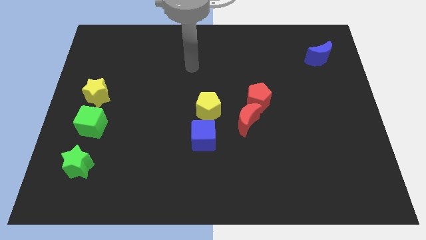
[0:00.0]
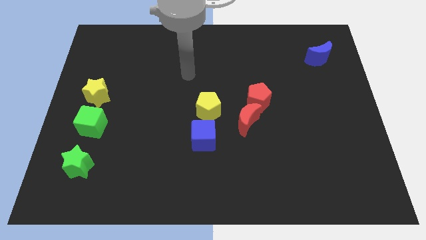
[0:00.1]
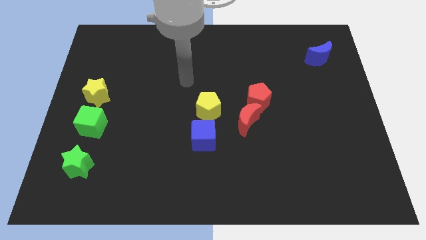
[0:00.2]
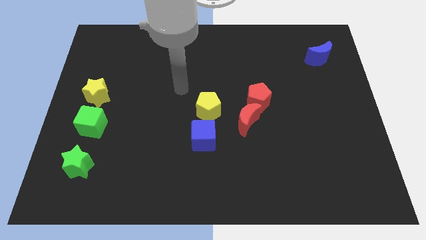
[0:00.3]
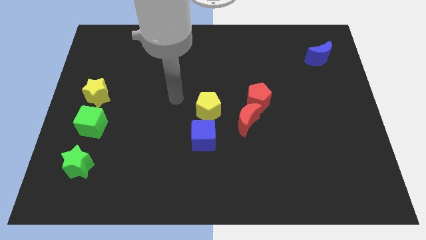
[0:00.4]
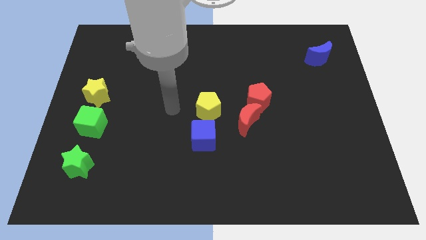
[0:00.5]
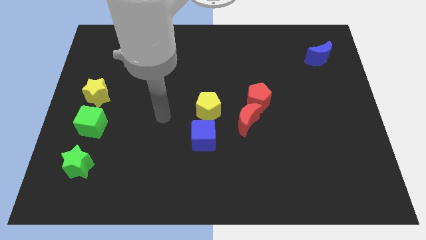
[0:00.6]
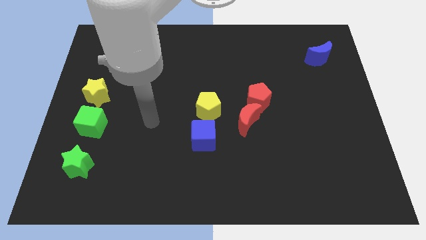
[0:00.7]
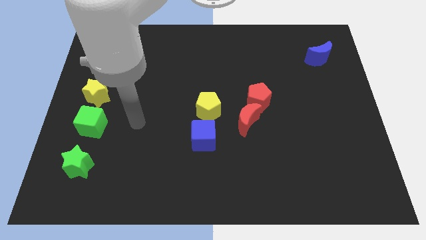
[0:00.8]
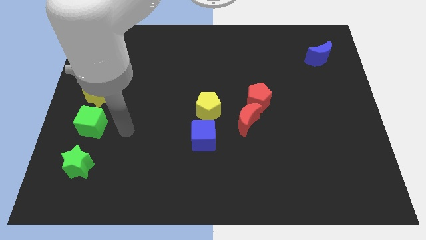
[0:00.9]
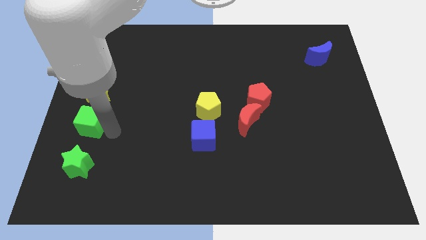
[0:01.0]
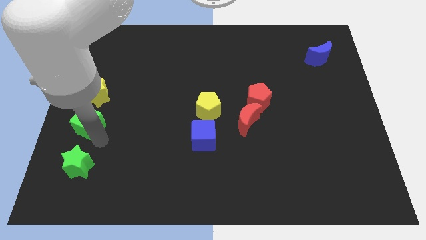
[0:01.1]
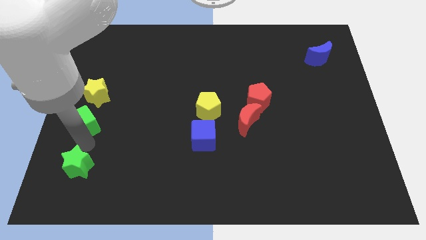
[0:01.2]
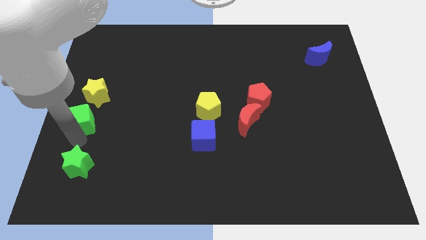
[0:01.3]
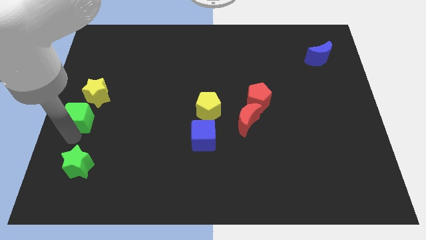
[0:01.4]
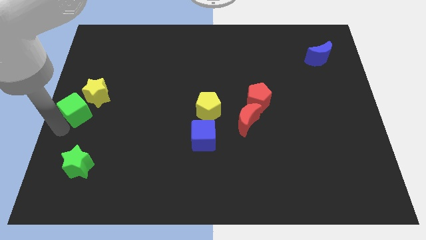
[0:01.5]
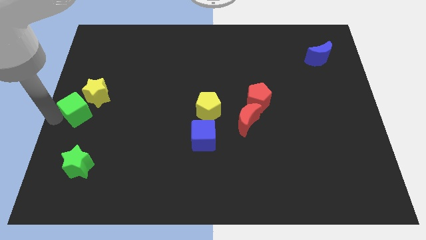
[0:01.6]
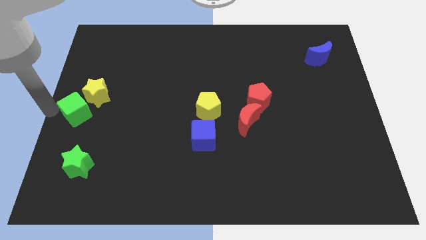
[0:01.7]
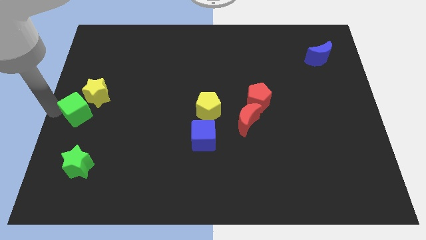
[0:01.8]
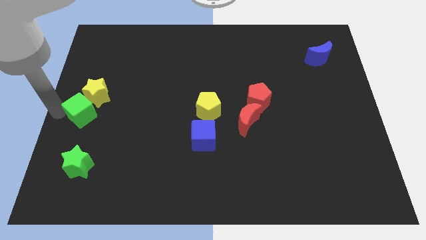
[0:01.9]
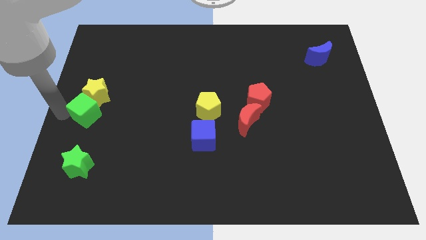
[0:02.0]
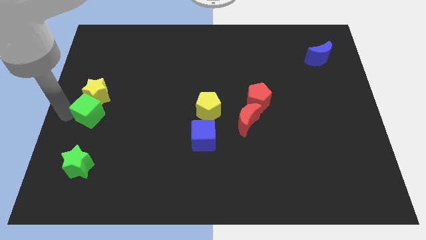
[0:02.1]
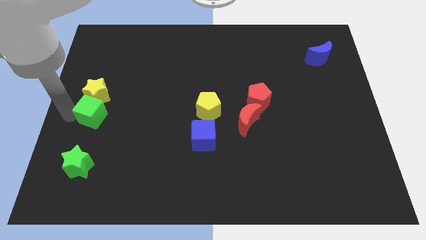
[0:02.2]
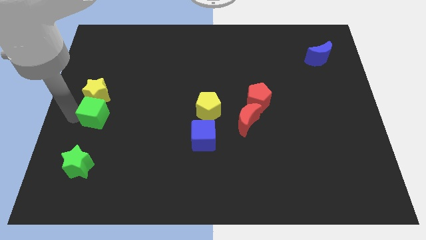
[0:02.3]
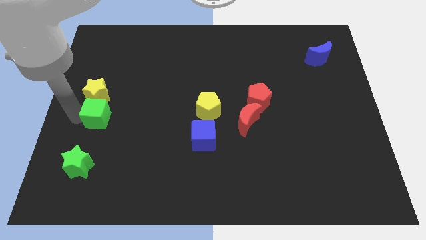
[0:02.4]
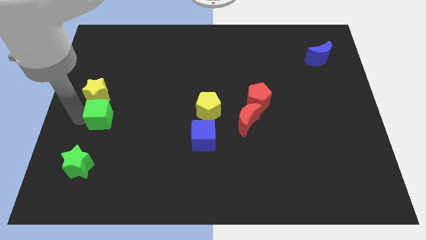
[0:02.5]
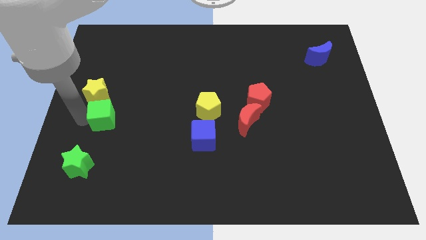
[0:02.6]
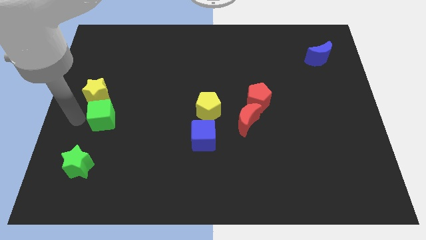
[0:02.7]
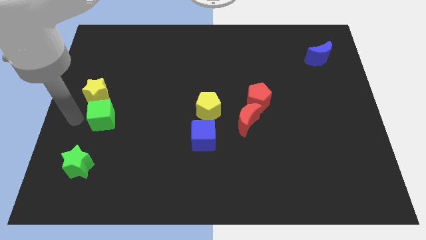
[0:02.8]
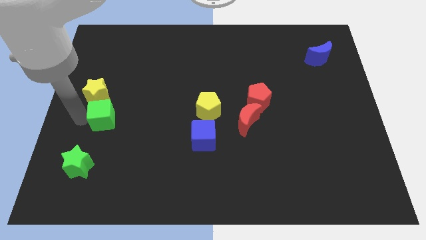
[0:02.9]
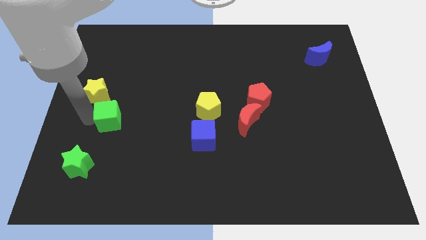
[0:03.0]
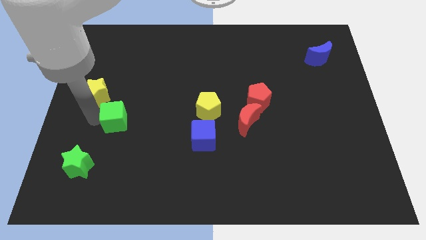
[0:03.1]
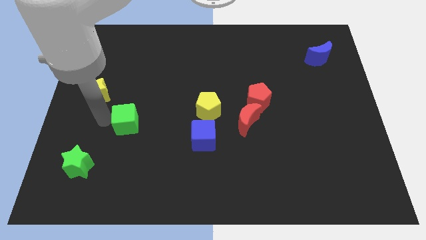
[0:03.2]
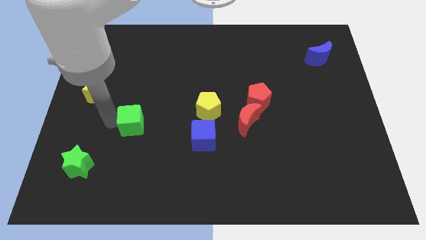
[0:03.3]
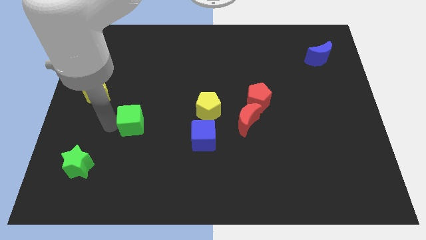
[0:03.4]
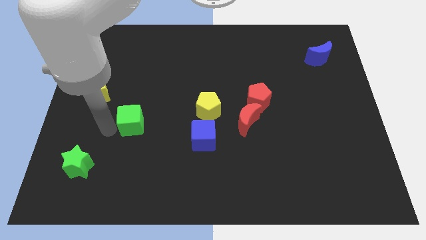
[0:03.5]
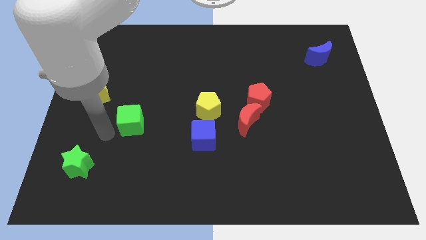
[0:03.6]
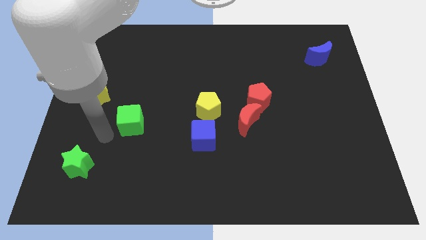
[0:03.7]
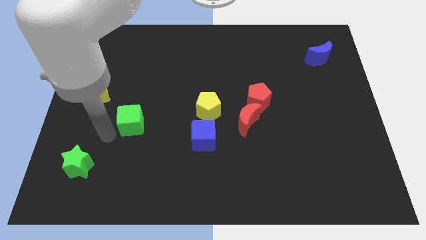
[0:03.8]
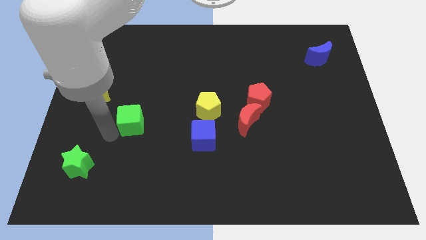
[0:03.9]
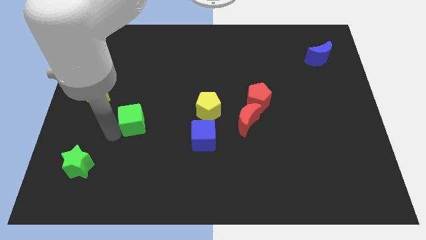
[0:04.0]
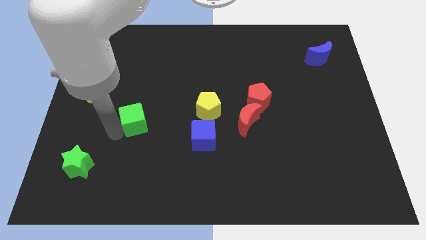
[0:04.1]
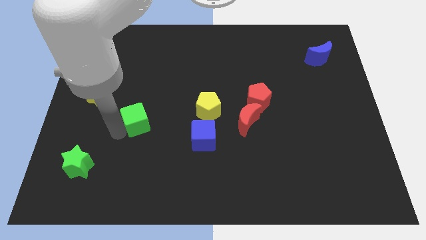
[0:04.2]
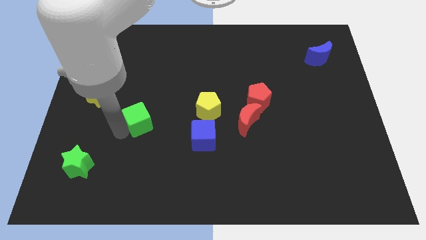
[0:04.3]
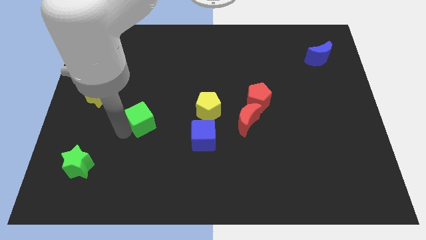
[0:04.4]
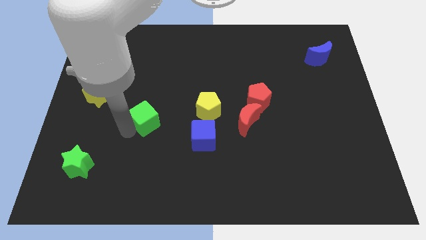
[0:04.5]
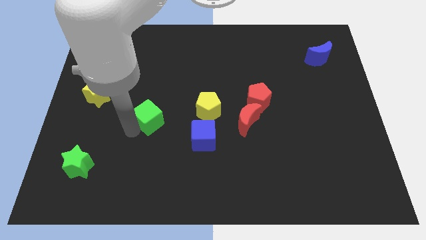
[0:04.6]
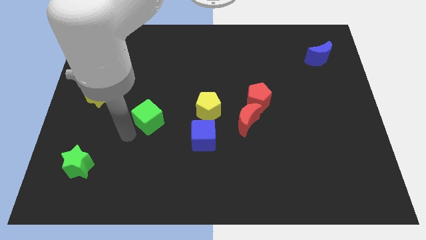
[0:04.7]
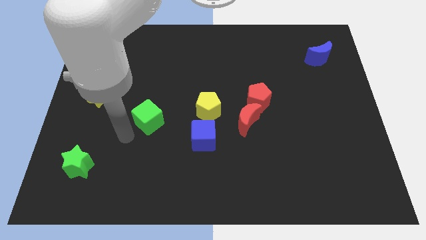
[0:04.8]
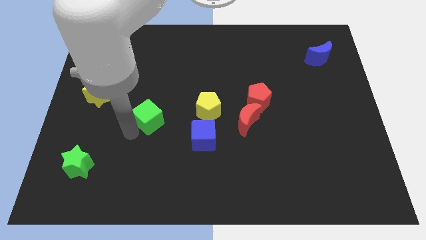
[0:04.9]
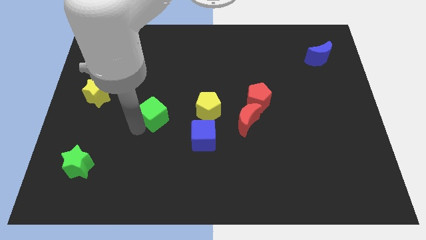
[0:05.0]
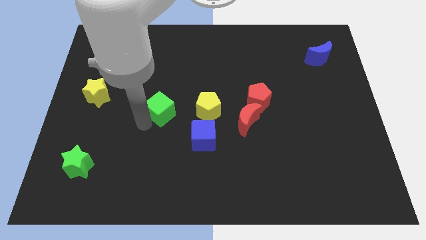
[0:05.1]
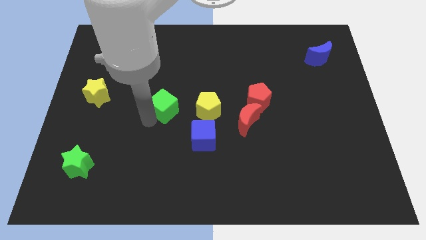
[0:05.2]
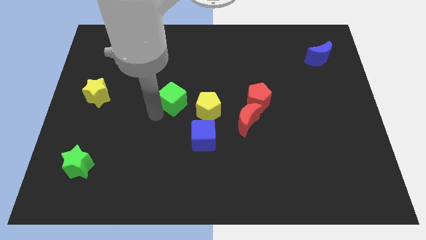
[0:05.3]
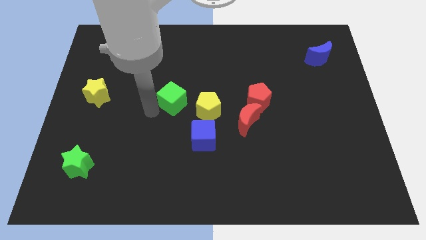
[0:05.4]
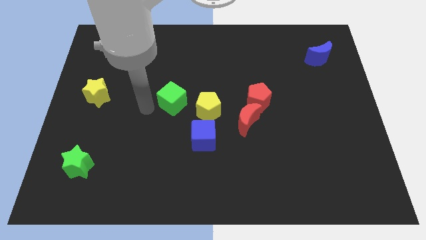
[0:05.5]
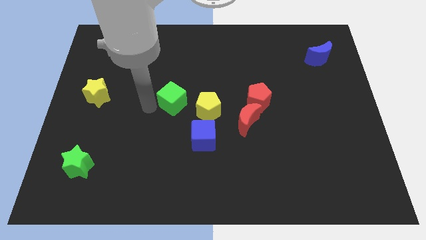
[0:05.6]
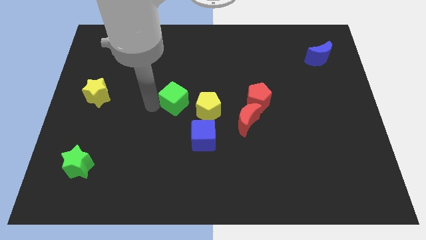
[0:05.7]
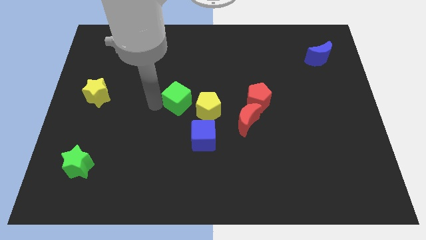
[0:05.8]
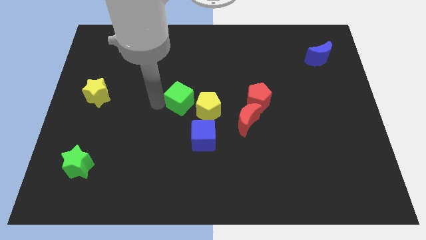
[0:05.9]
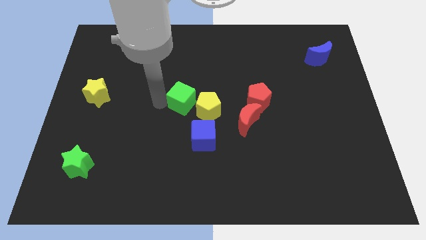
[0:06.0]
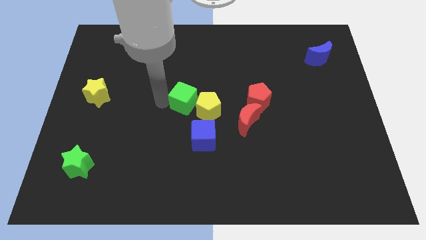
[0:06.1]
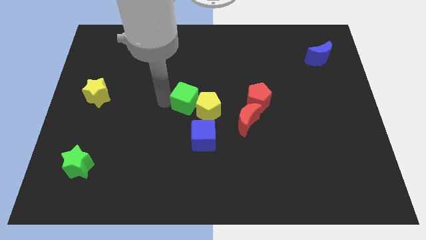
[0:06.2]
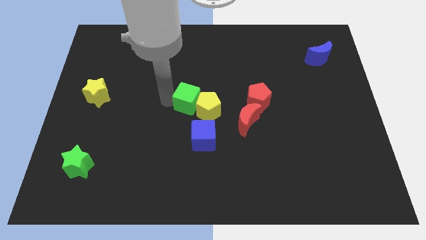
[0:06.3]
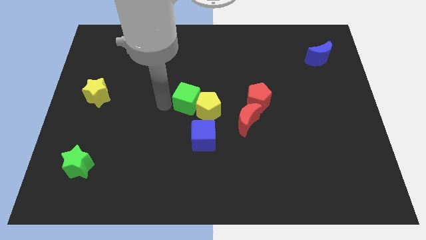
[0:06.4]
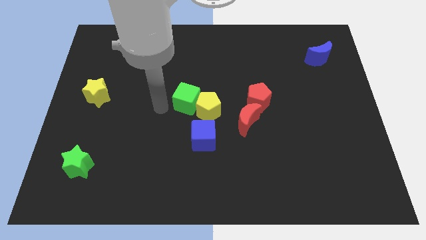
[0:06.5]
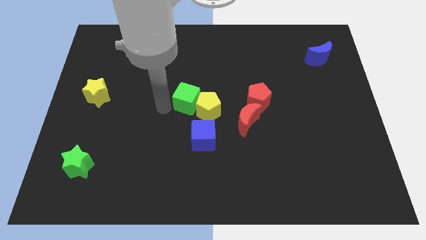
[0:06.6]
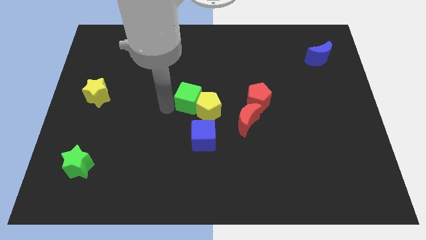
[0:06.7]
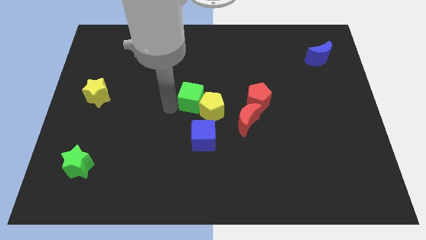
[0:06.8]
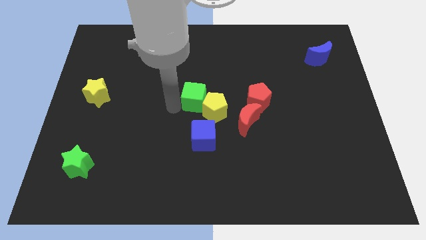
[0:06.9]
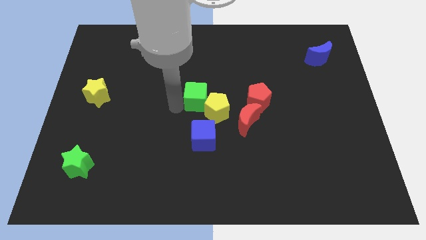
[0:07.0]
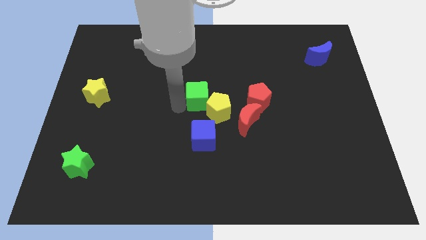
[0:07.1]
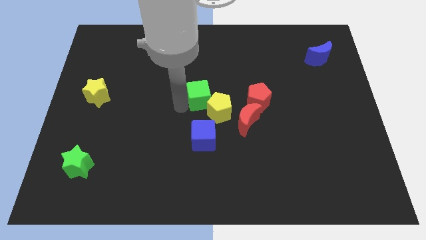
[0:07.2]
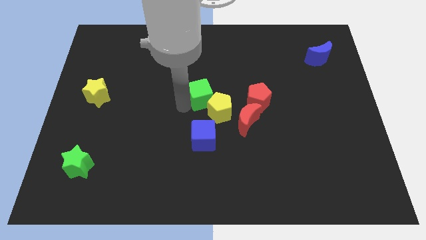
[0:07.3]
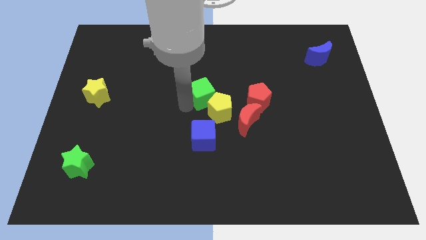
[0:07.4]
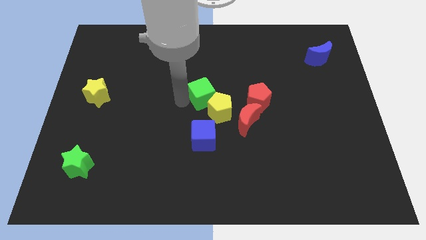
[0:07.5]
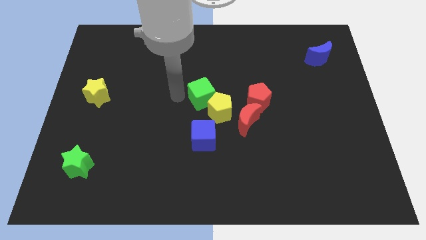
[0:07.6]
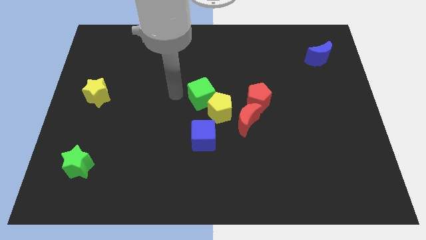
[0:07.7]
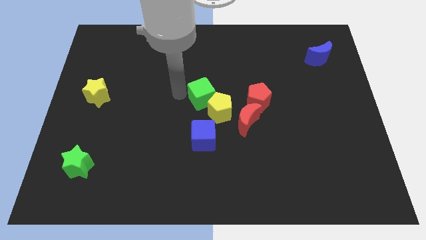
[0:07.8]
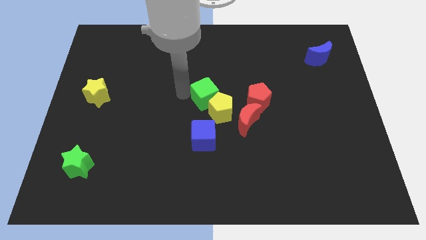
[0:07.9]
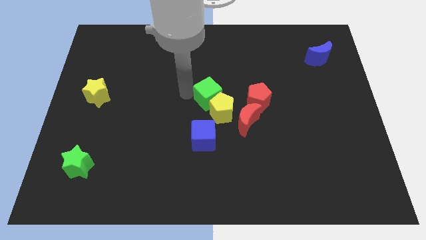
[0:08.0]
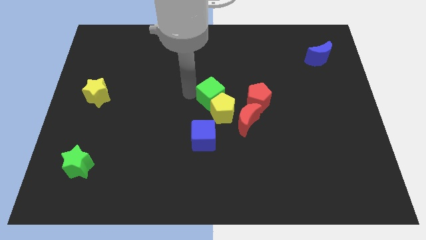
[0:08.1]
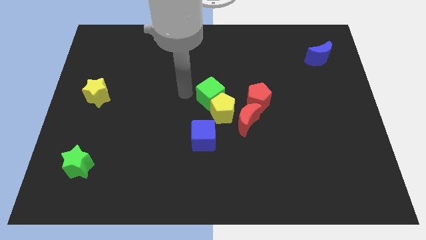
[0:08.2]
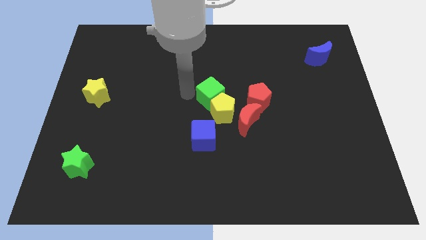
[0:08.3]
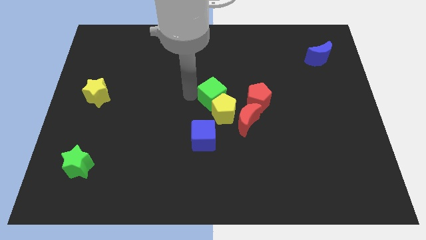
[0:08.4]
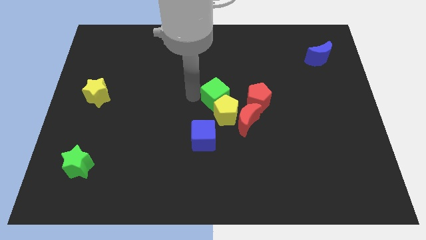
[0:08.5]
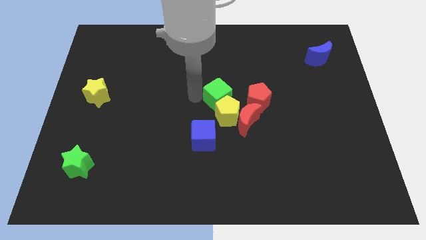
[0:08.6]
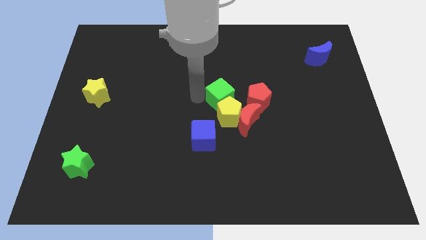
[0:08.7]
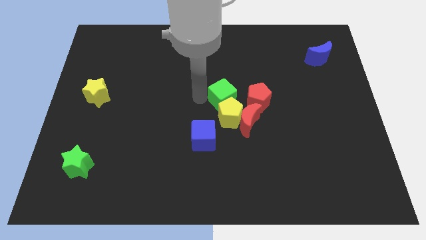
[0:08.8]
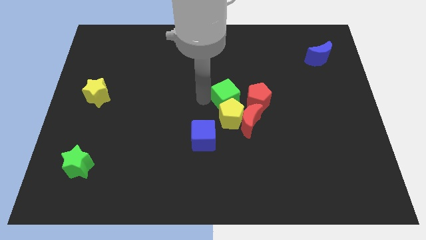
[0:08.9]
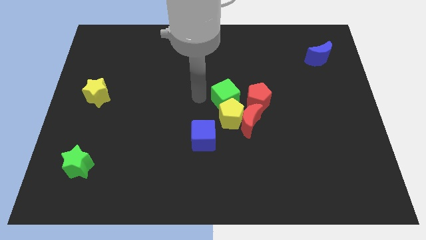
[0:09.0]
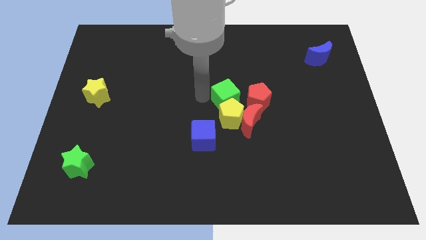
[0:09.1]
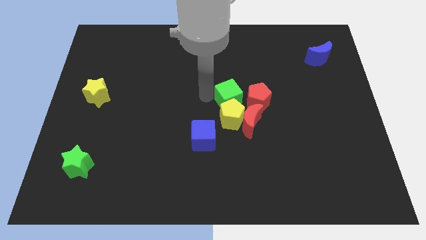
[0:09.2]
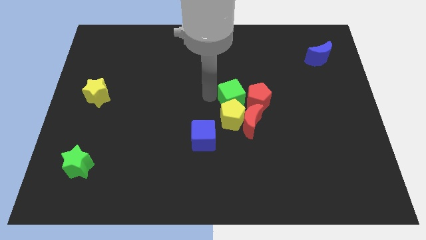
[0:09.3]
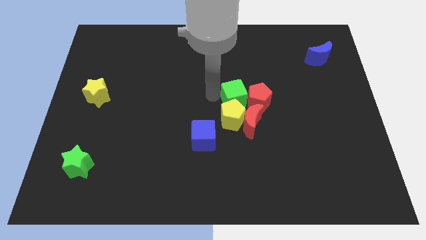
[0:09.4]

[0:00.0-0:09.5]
move the green cube close to the red pentagon
